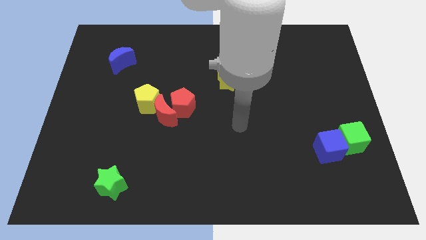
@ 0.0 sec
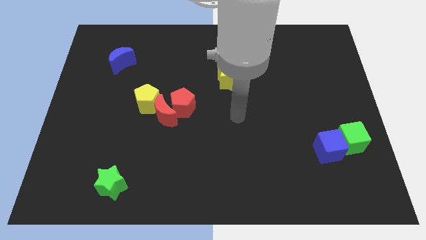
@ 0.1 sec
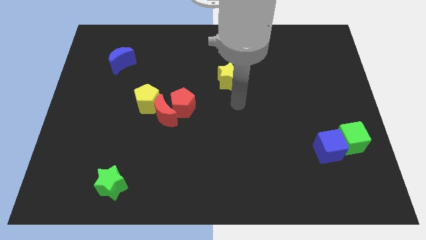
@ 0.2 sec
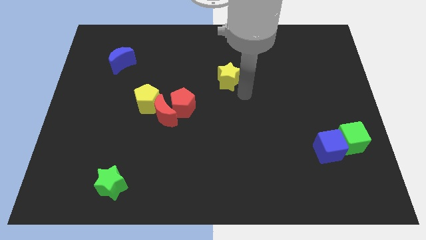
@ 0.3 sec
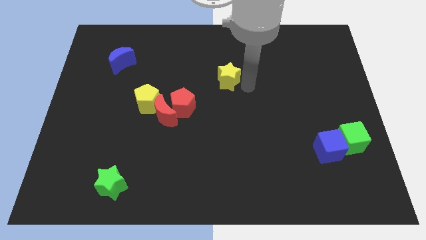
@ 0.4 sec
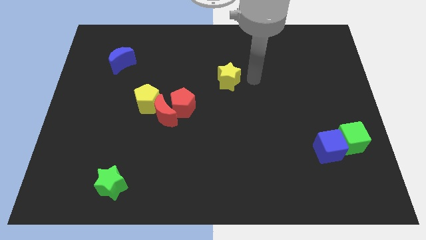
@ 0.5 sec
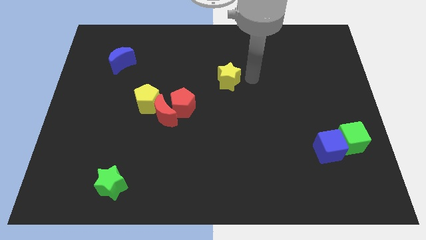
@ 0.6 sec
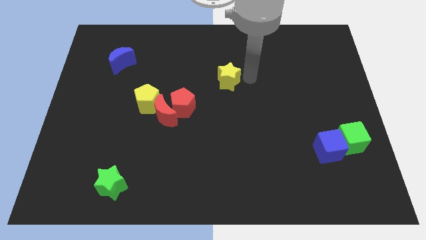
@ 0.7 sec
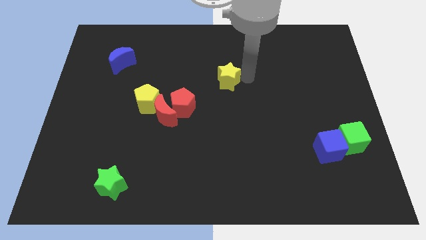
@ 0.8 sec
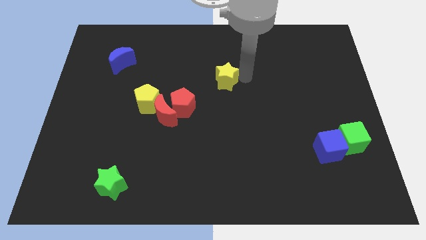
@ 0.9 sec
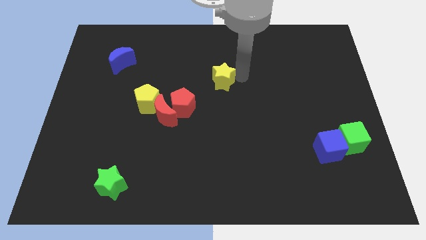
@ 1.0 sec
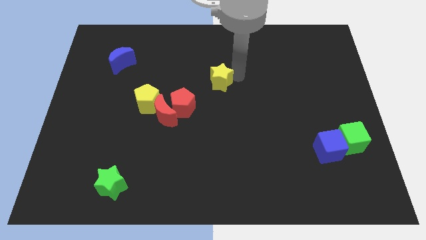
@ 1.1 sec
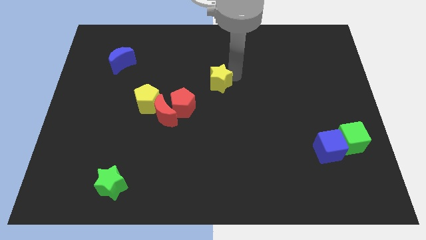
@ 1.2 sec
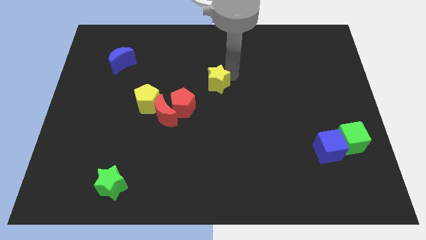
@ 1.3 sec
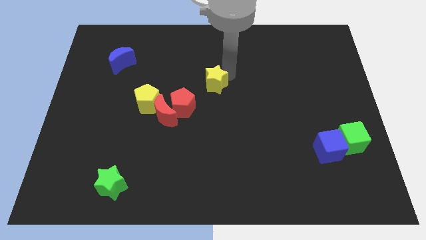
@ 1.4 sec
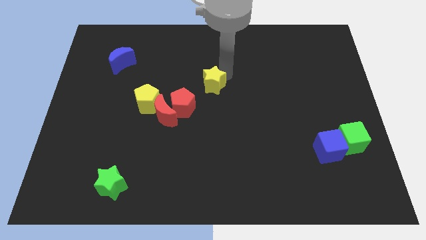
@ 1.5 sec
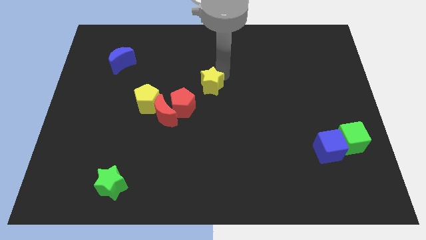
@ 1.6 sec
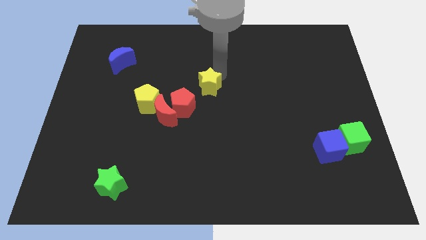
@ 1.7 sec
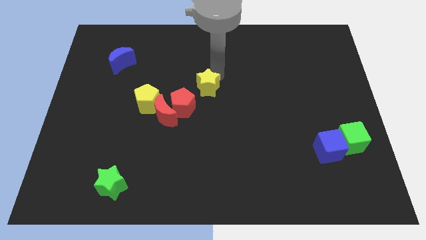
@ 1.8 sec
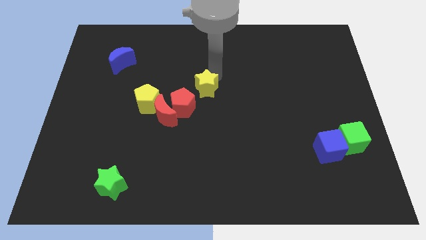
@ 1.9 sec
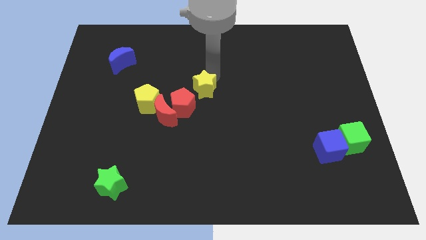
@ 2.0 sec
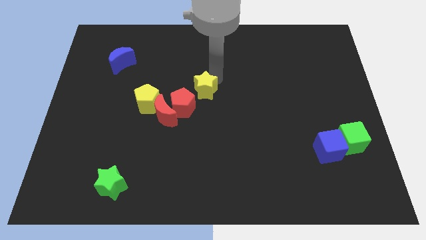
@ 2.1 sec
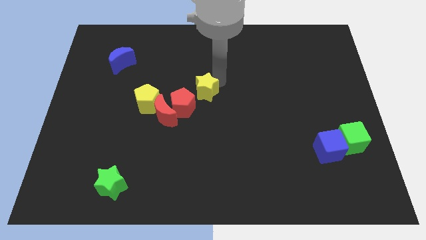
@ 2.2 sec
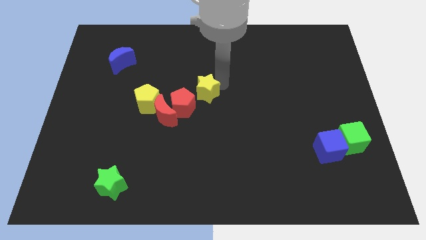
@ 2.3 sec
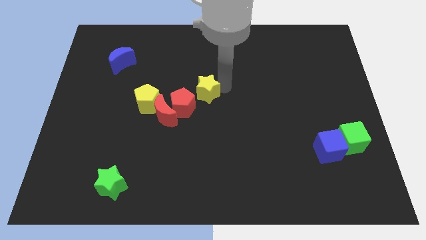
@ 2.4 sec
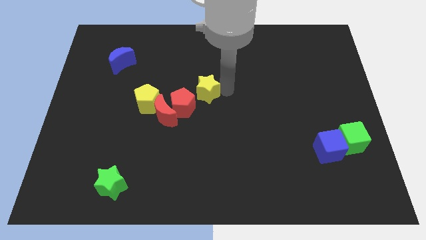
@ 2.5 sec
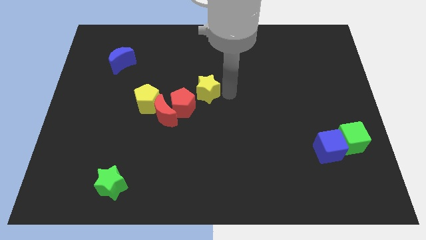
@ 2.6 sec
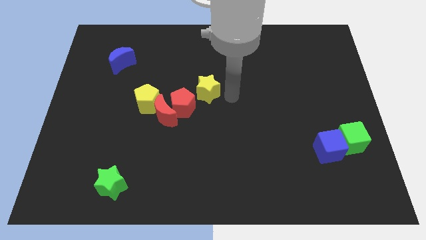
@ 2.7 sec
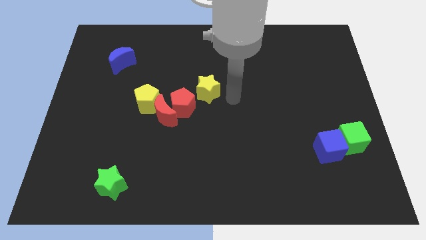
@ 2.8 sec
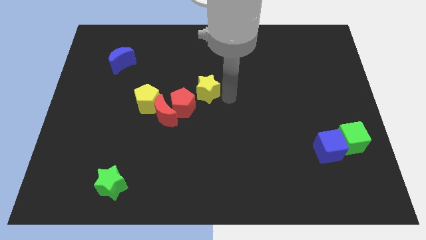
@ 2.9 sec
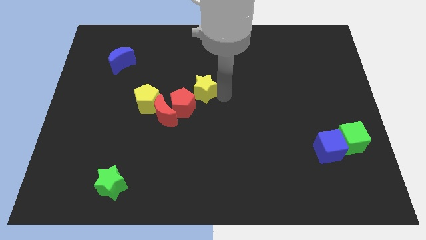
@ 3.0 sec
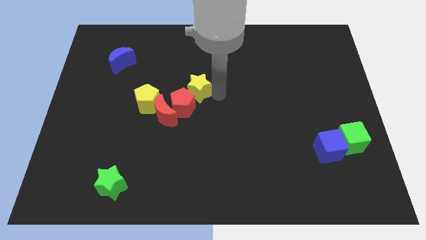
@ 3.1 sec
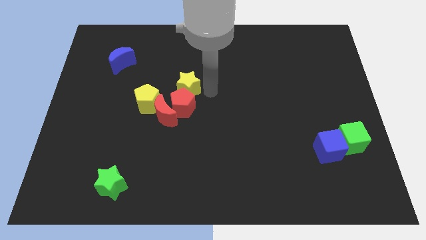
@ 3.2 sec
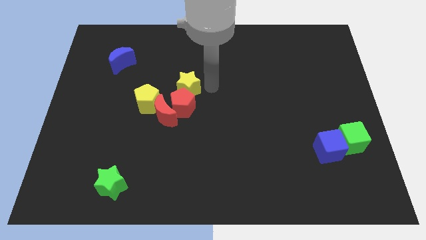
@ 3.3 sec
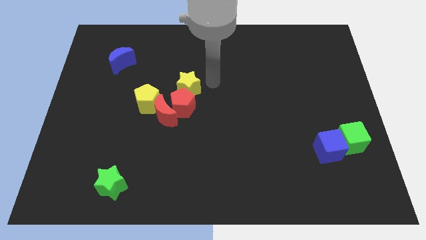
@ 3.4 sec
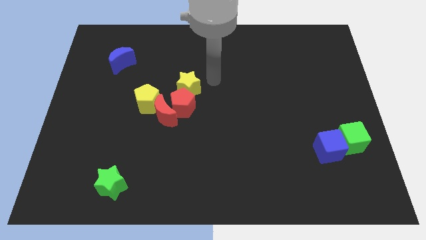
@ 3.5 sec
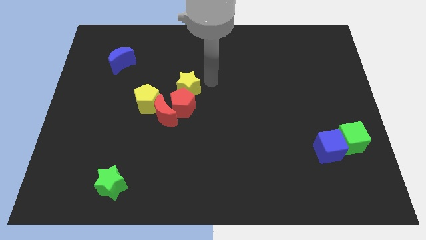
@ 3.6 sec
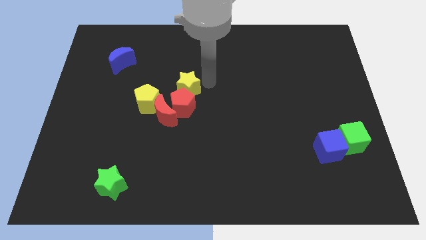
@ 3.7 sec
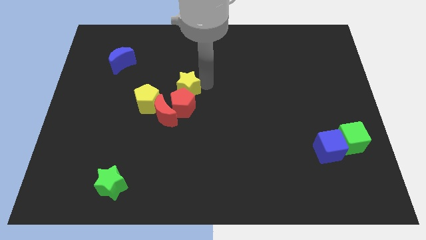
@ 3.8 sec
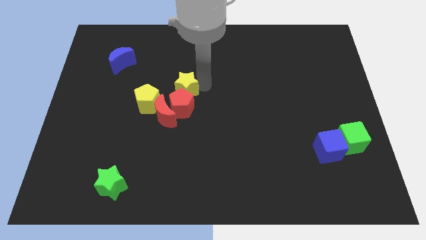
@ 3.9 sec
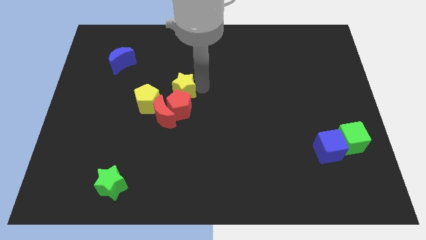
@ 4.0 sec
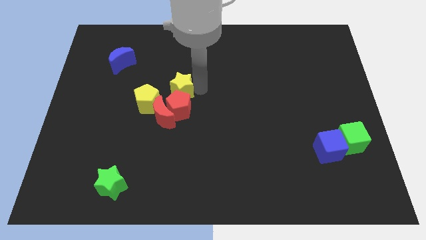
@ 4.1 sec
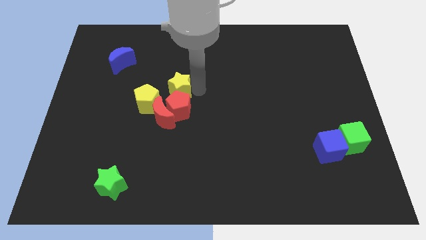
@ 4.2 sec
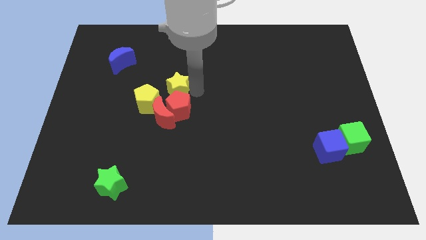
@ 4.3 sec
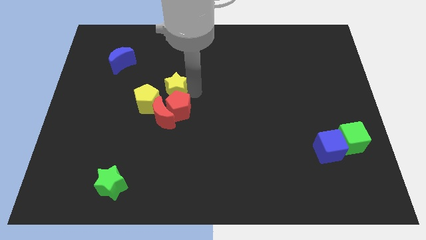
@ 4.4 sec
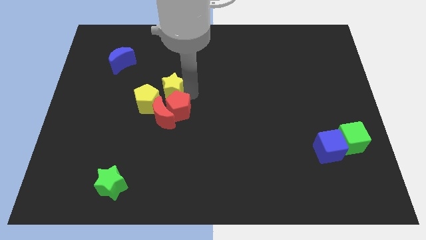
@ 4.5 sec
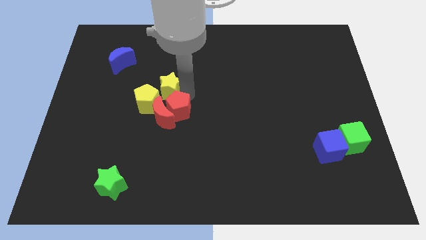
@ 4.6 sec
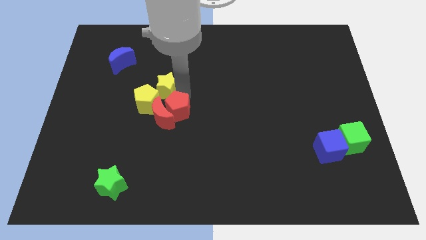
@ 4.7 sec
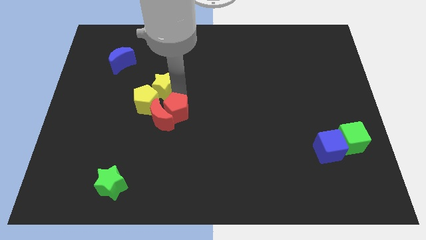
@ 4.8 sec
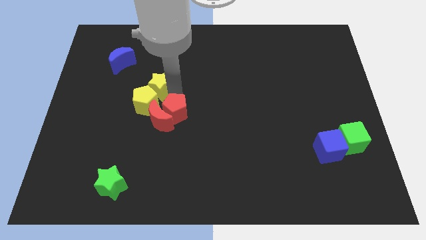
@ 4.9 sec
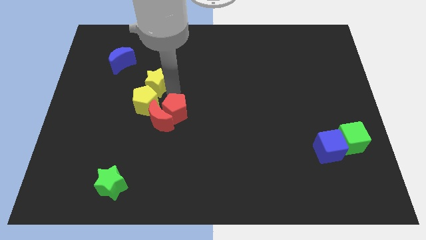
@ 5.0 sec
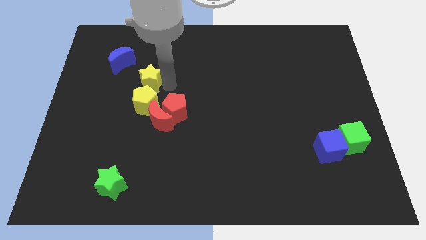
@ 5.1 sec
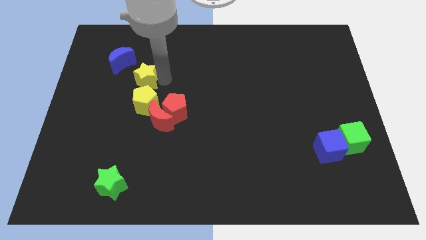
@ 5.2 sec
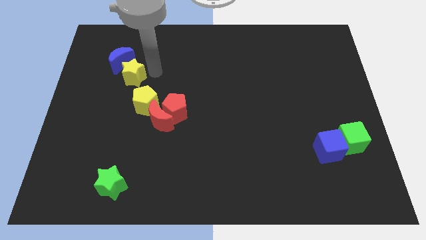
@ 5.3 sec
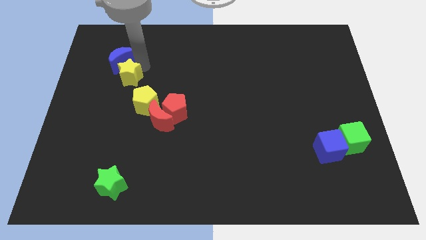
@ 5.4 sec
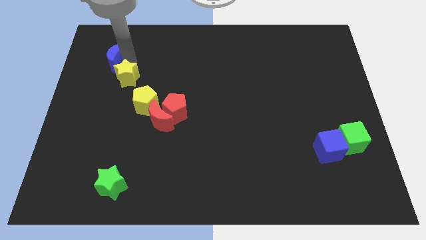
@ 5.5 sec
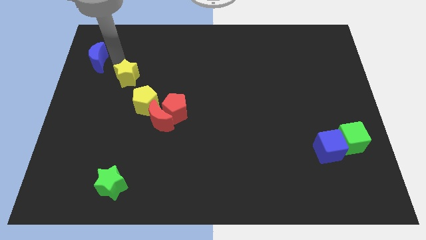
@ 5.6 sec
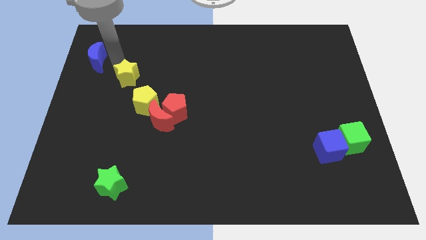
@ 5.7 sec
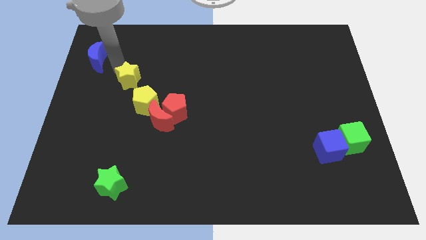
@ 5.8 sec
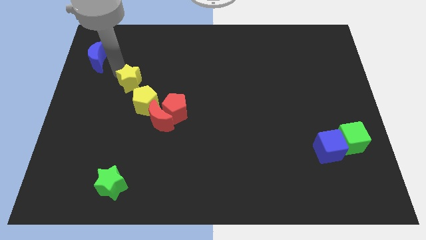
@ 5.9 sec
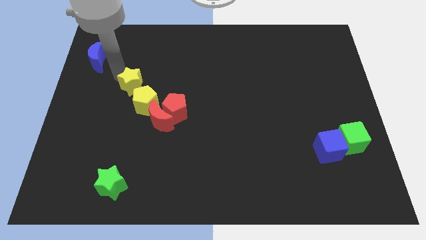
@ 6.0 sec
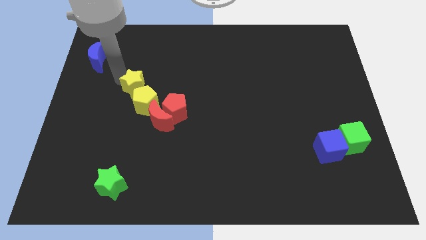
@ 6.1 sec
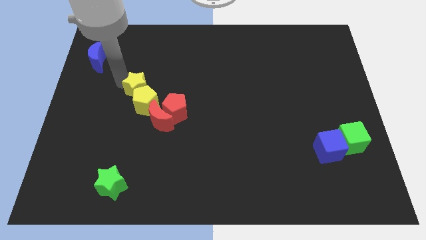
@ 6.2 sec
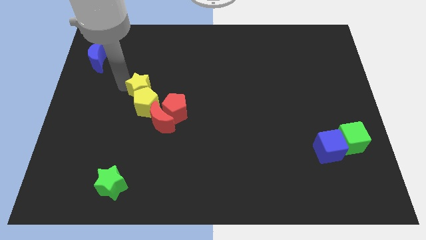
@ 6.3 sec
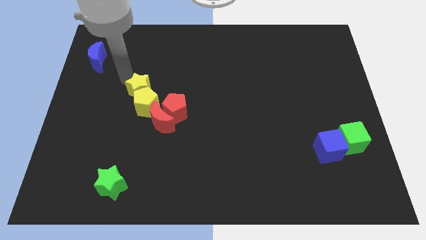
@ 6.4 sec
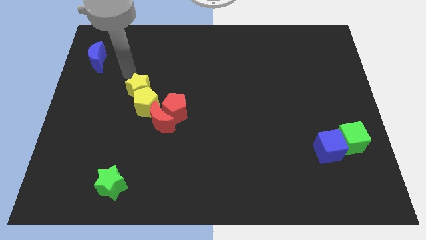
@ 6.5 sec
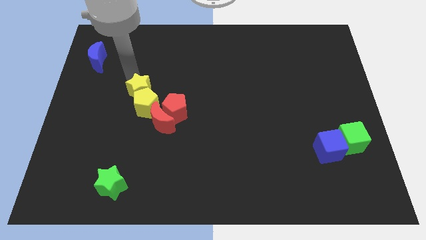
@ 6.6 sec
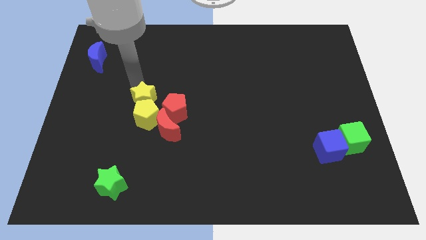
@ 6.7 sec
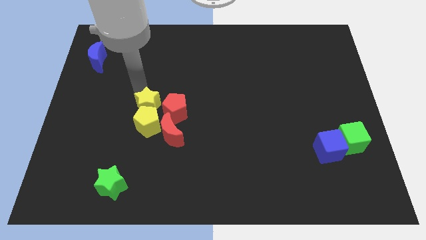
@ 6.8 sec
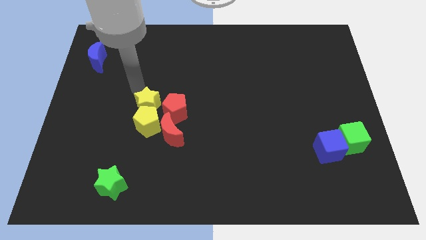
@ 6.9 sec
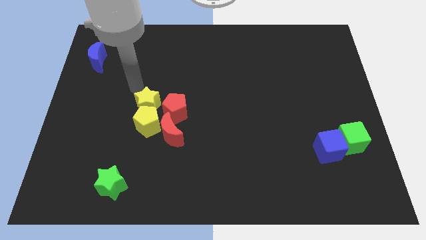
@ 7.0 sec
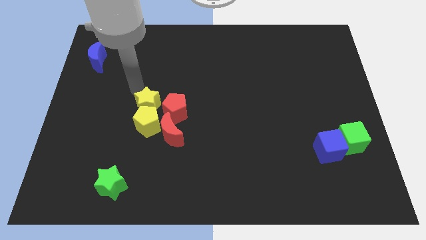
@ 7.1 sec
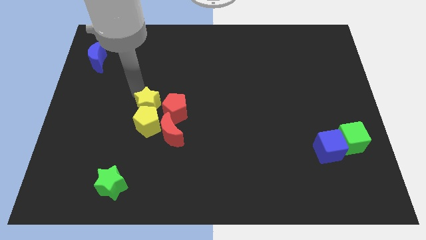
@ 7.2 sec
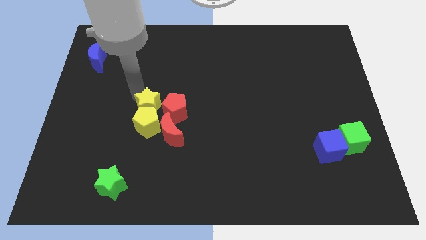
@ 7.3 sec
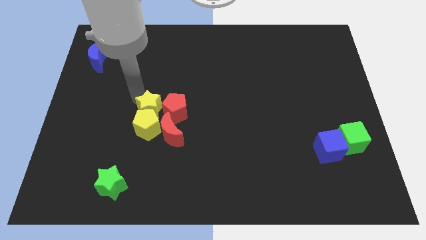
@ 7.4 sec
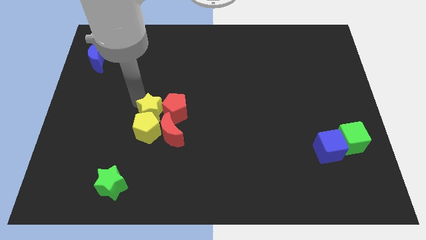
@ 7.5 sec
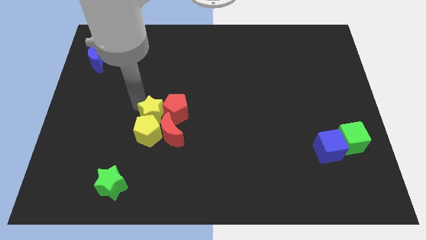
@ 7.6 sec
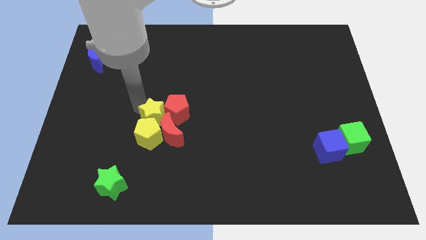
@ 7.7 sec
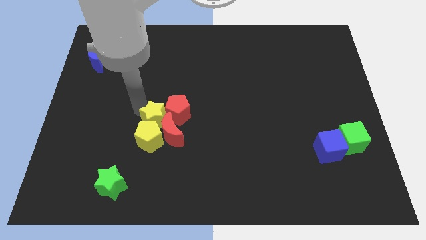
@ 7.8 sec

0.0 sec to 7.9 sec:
slide the yellow star close to the red moon
